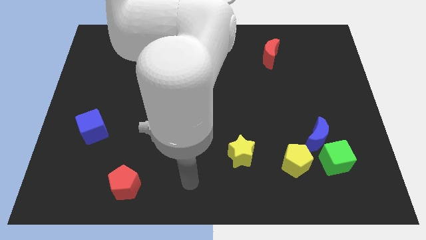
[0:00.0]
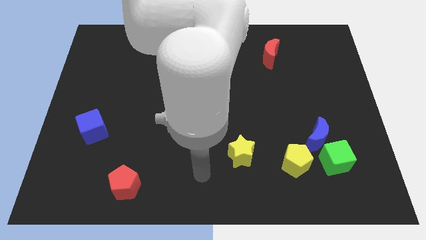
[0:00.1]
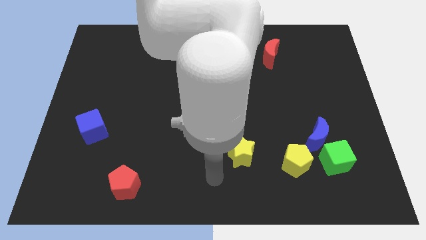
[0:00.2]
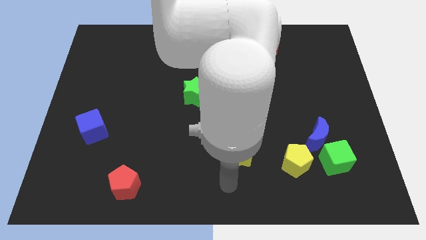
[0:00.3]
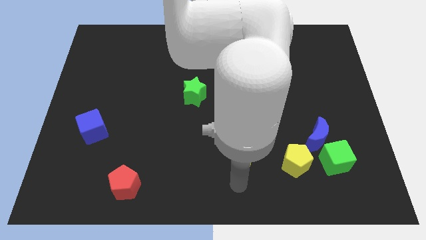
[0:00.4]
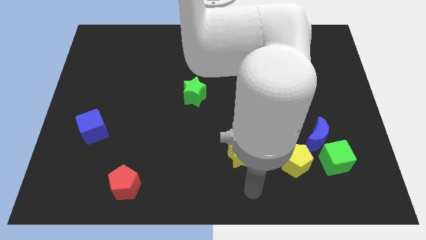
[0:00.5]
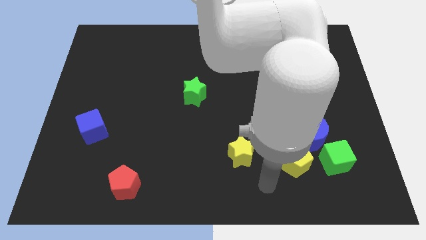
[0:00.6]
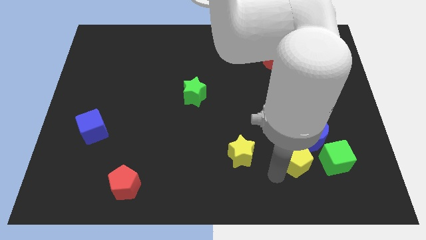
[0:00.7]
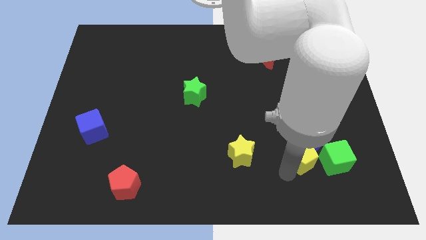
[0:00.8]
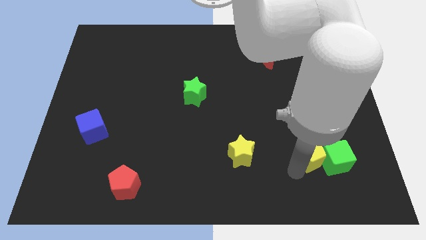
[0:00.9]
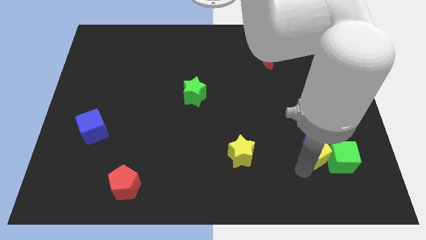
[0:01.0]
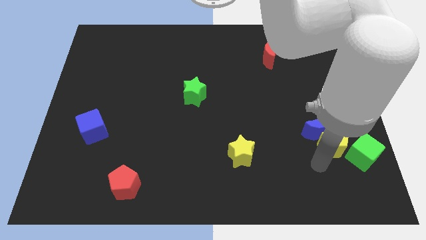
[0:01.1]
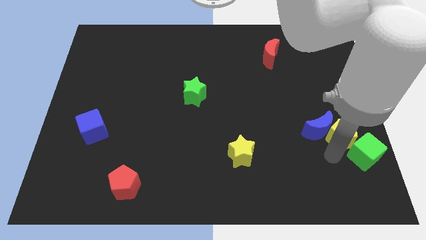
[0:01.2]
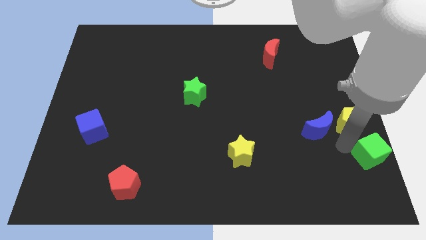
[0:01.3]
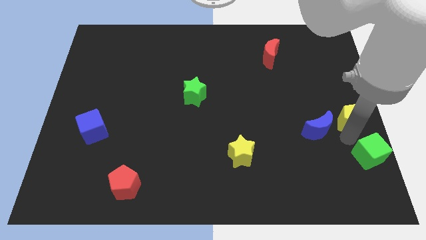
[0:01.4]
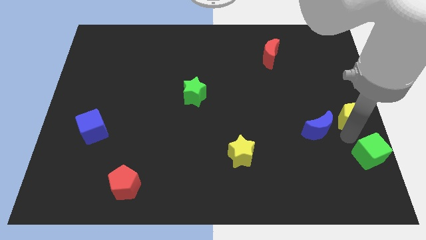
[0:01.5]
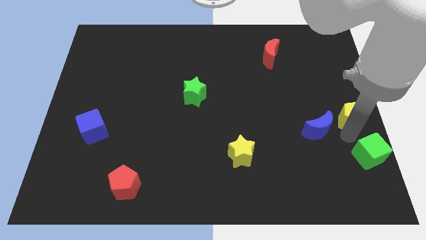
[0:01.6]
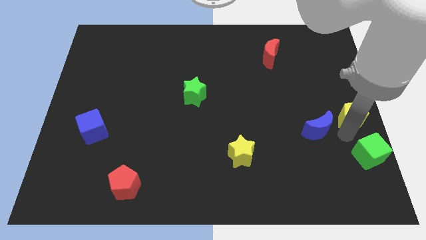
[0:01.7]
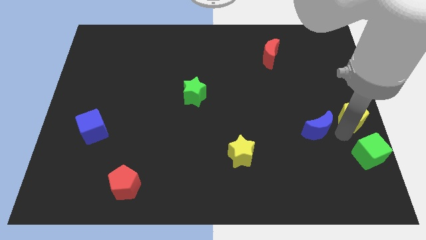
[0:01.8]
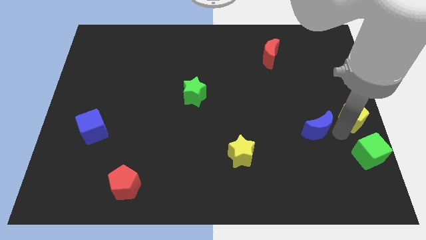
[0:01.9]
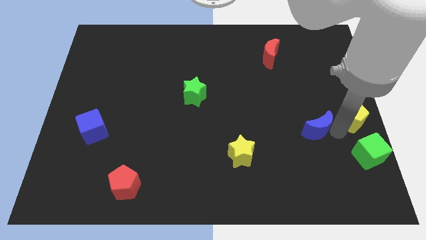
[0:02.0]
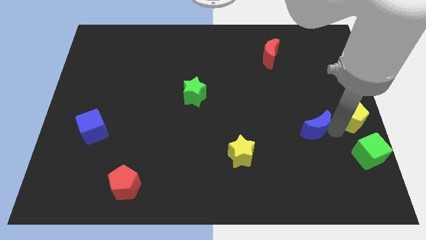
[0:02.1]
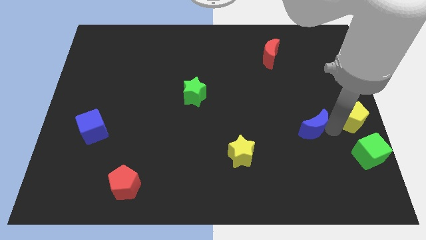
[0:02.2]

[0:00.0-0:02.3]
move the blue moon away from the green cube and yellow pentagon

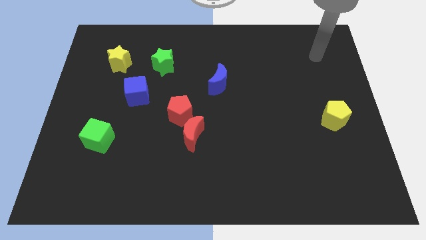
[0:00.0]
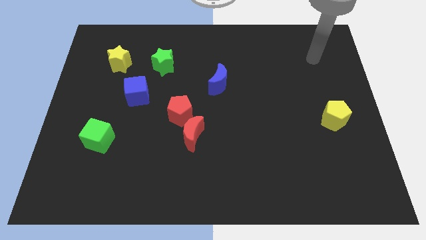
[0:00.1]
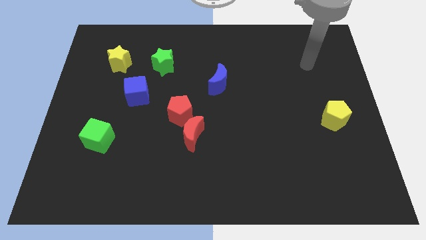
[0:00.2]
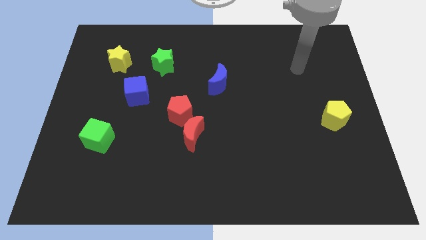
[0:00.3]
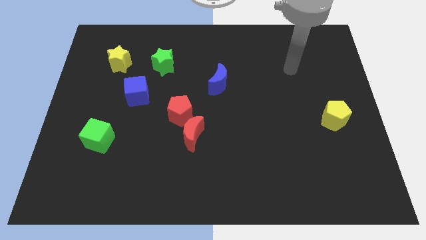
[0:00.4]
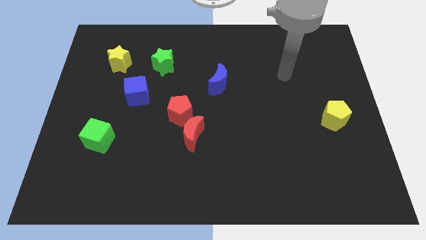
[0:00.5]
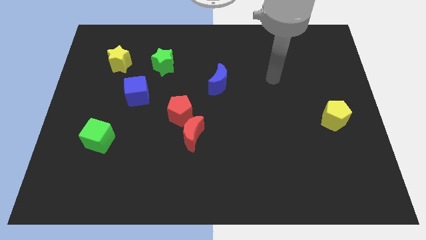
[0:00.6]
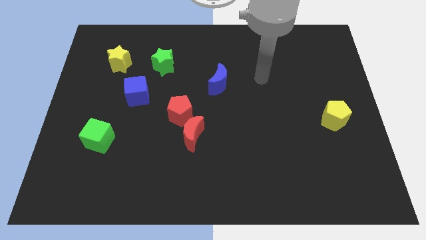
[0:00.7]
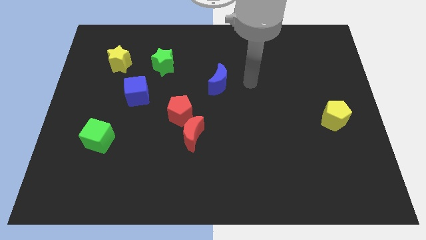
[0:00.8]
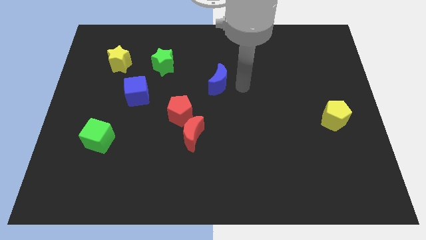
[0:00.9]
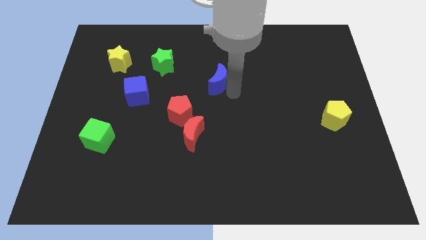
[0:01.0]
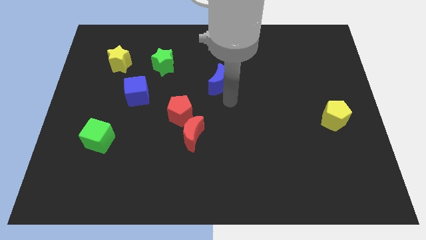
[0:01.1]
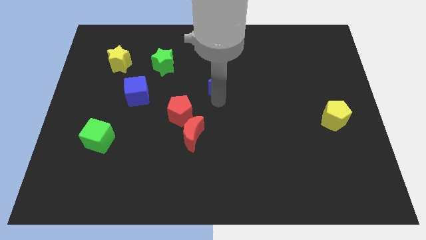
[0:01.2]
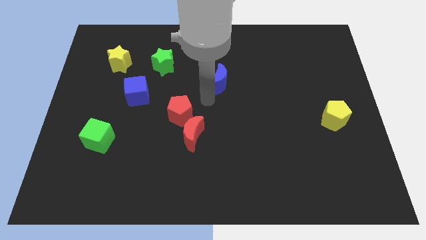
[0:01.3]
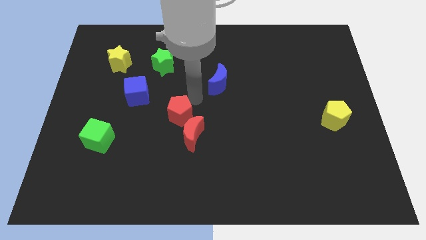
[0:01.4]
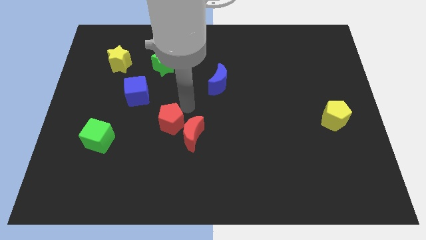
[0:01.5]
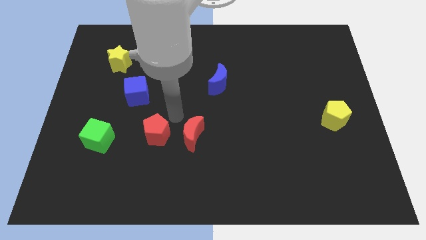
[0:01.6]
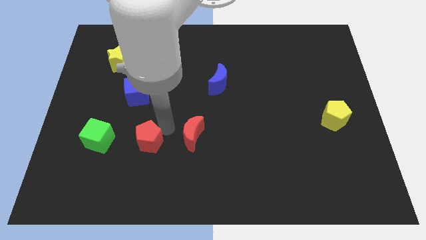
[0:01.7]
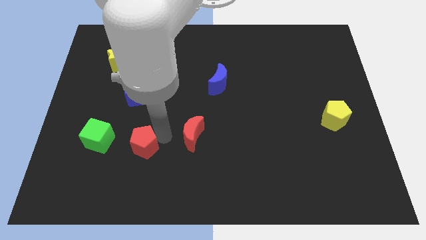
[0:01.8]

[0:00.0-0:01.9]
move the red moon away from the red pentagon

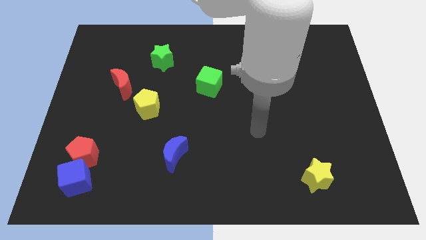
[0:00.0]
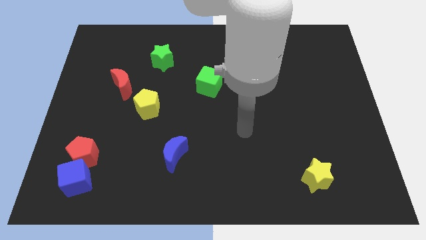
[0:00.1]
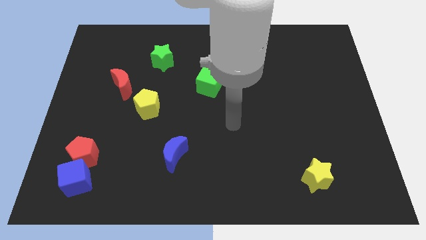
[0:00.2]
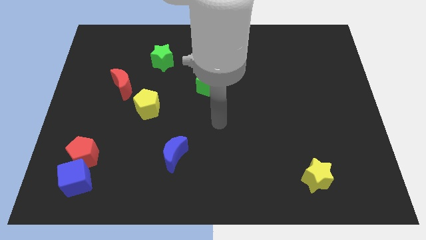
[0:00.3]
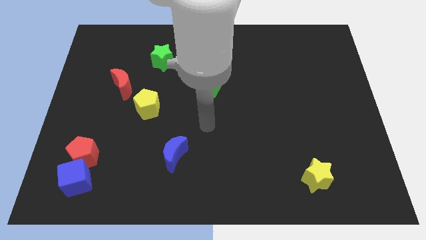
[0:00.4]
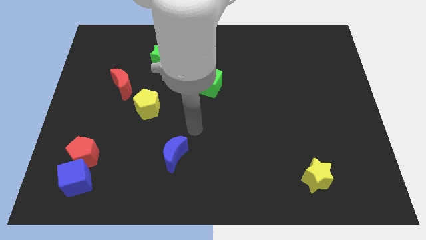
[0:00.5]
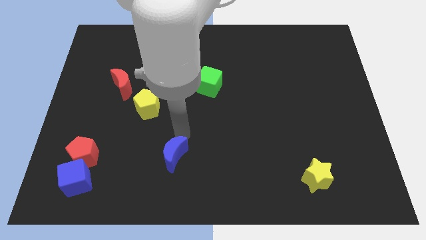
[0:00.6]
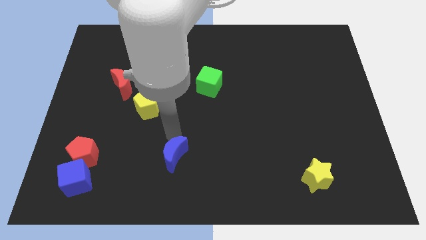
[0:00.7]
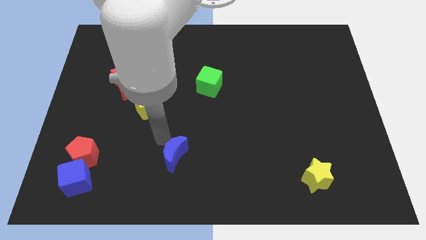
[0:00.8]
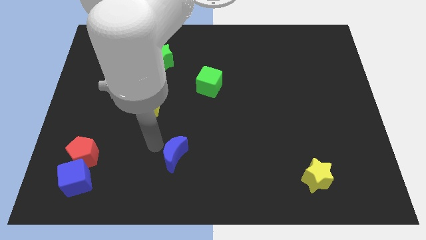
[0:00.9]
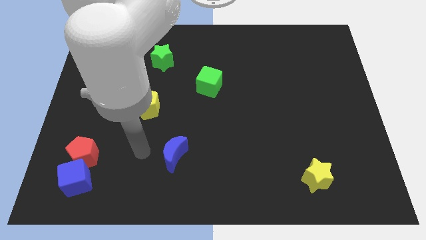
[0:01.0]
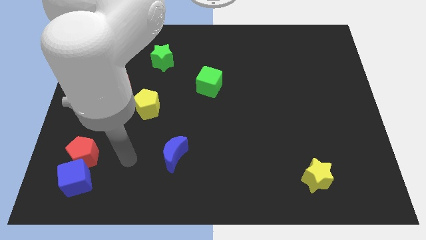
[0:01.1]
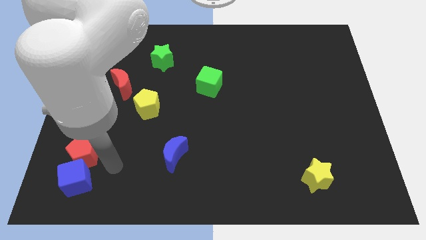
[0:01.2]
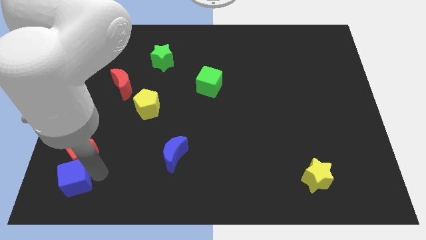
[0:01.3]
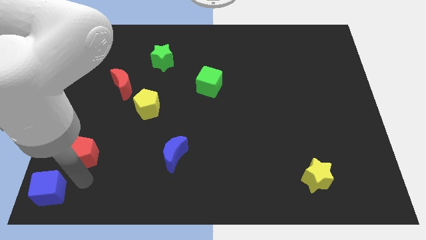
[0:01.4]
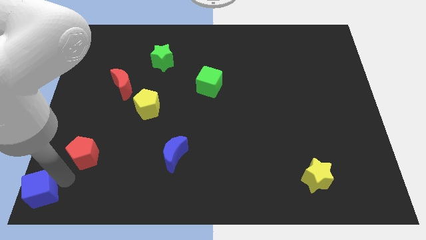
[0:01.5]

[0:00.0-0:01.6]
separate the red pentagon from the blue cube

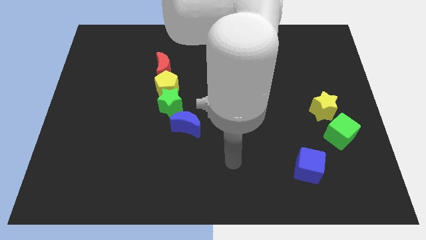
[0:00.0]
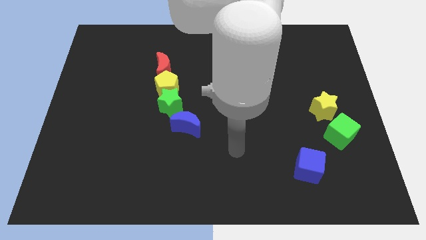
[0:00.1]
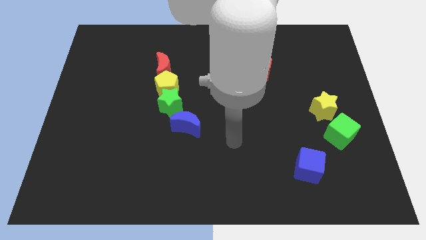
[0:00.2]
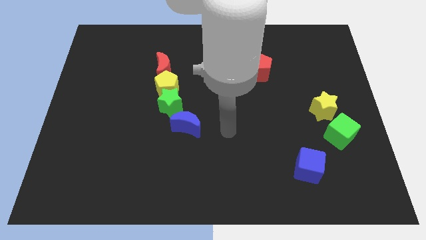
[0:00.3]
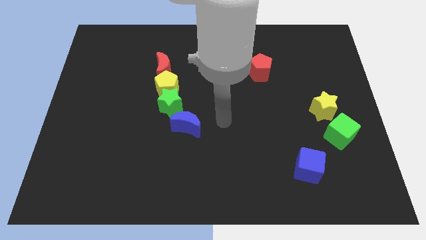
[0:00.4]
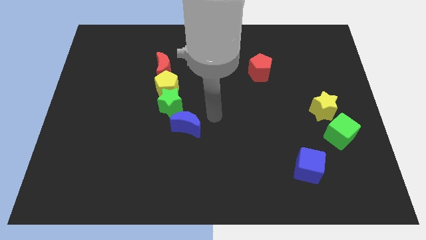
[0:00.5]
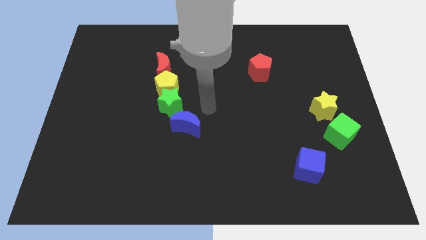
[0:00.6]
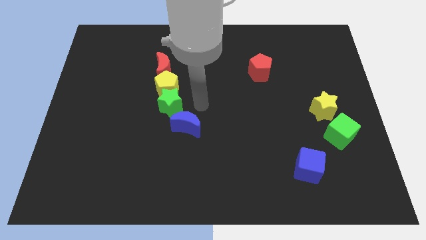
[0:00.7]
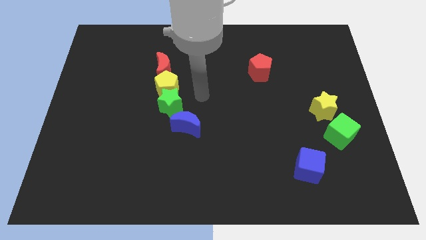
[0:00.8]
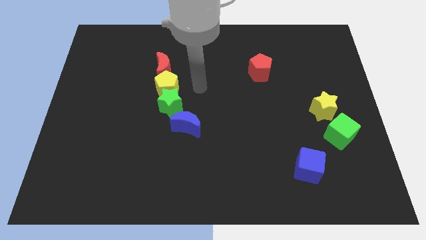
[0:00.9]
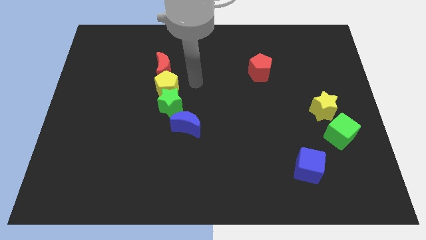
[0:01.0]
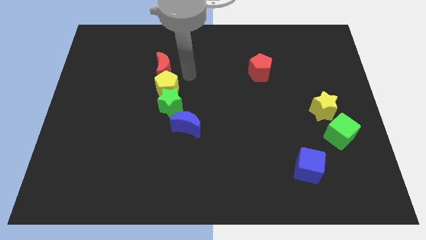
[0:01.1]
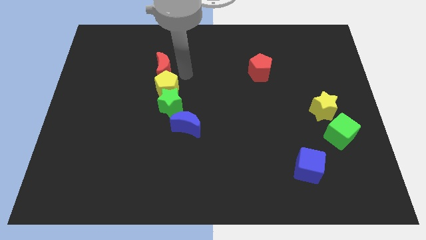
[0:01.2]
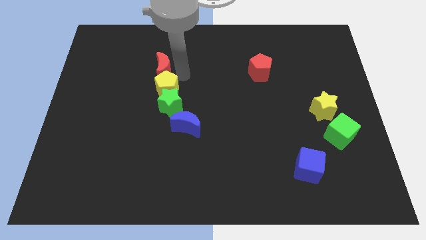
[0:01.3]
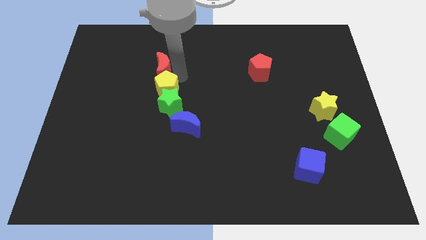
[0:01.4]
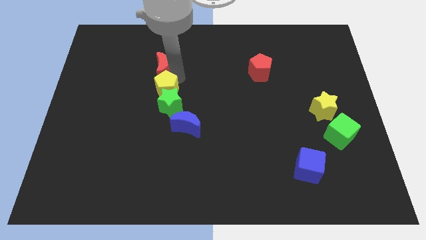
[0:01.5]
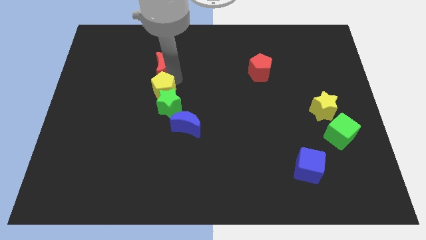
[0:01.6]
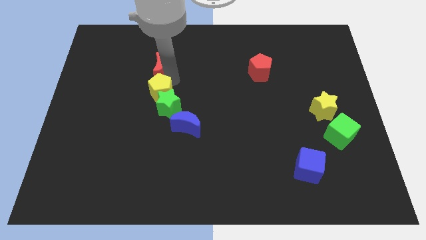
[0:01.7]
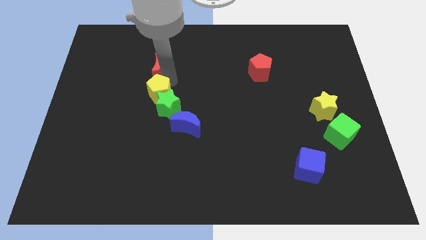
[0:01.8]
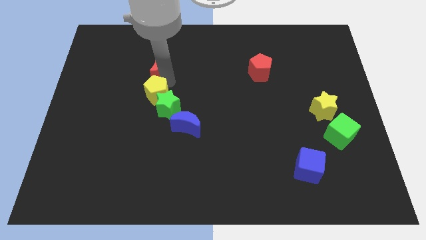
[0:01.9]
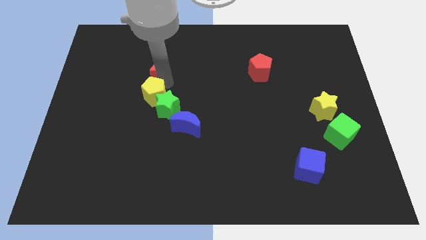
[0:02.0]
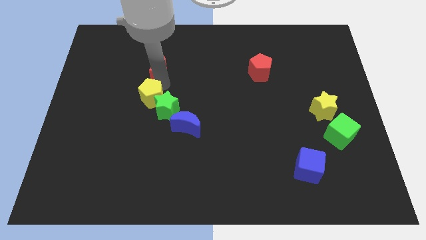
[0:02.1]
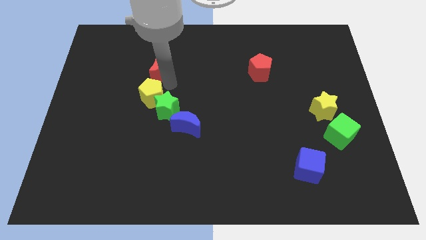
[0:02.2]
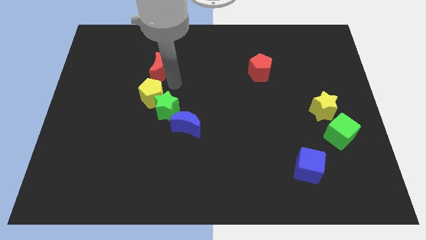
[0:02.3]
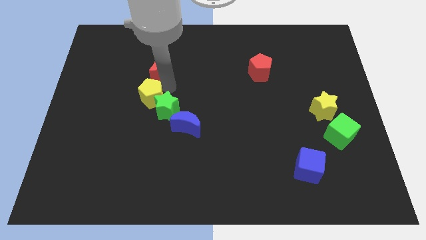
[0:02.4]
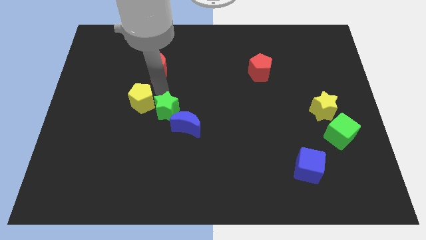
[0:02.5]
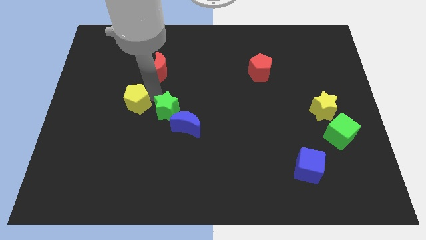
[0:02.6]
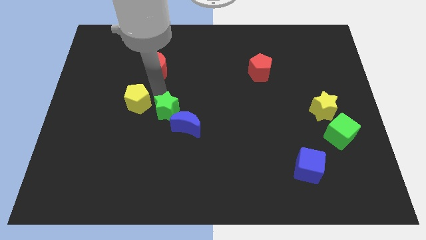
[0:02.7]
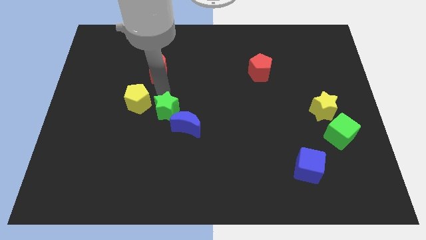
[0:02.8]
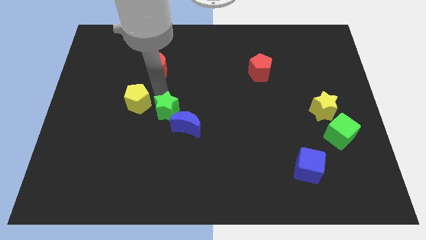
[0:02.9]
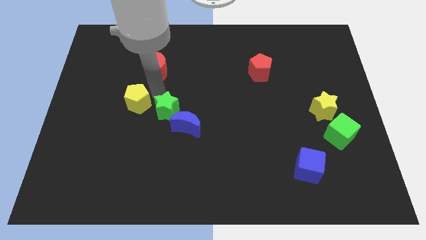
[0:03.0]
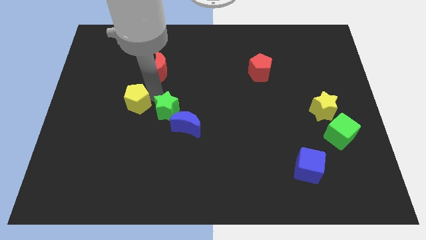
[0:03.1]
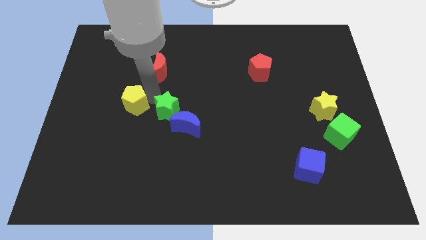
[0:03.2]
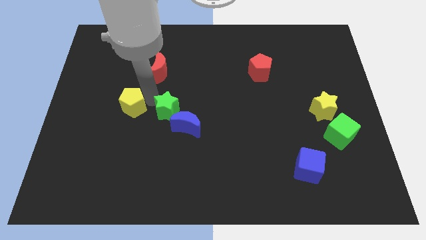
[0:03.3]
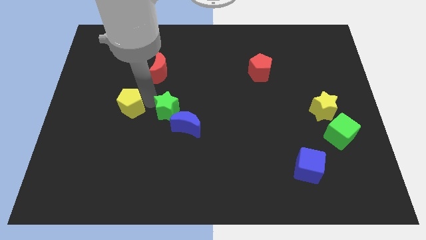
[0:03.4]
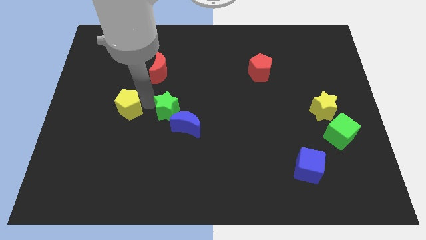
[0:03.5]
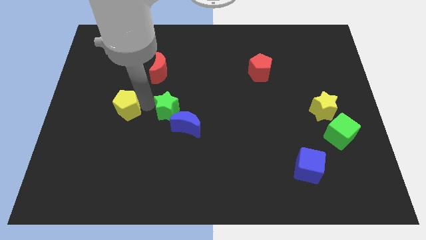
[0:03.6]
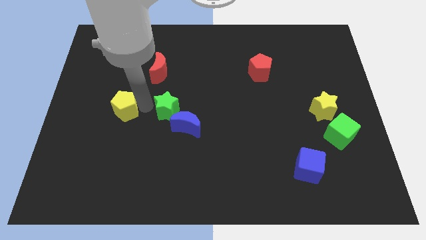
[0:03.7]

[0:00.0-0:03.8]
separate the yellow pentagon from the green star and red moon
